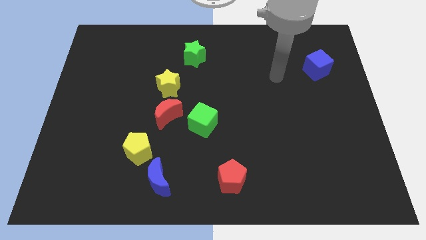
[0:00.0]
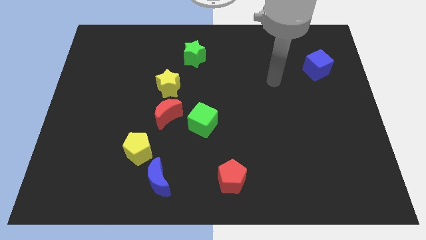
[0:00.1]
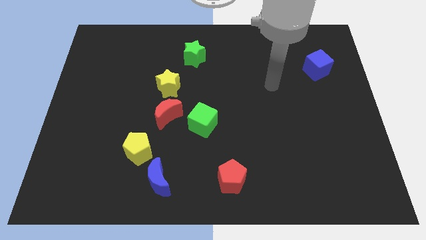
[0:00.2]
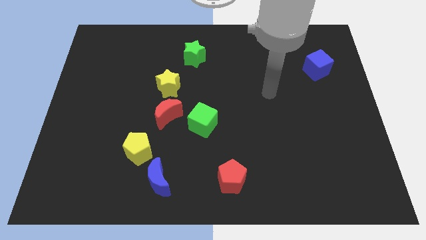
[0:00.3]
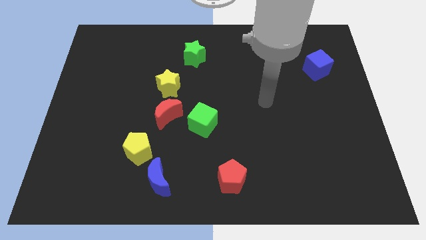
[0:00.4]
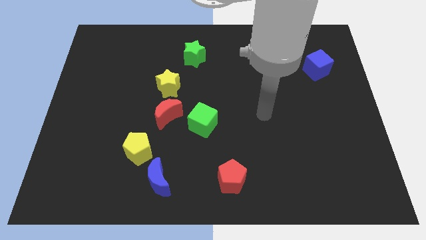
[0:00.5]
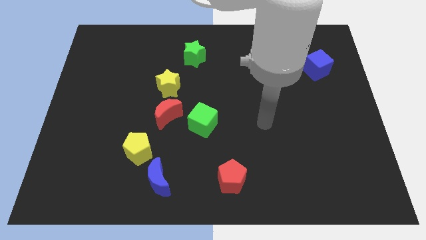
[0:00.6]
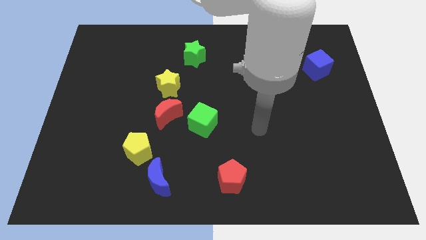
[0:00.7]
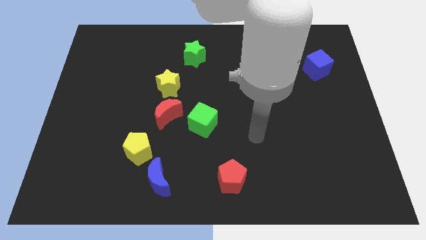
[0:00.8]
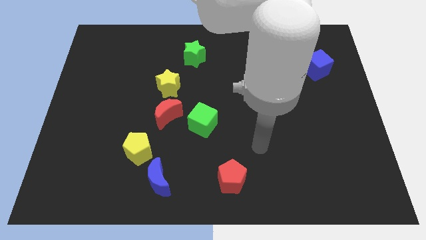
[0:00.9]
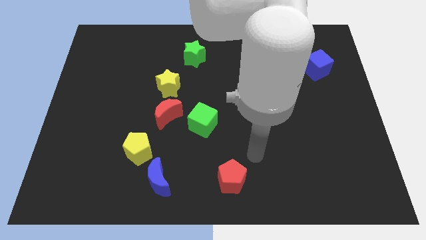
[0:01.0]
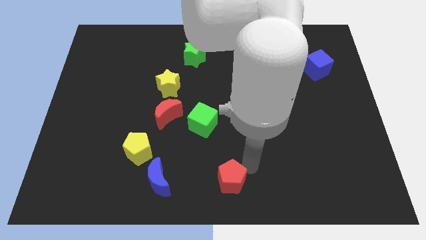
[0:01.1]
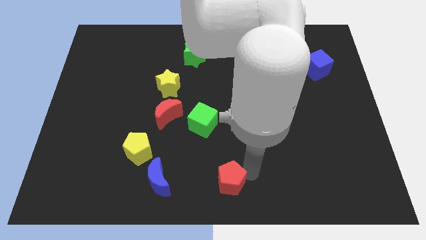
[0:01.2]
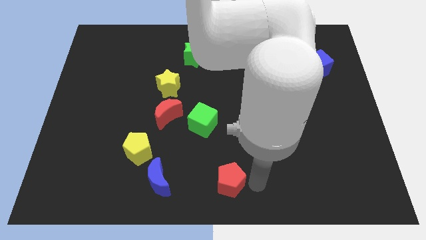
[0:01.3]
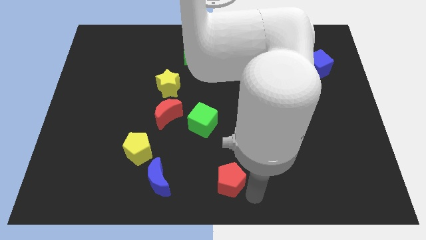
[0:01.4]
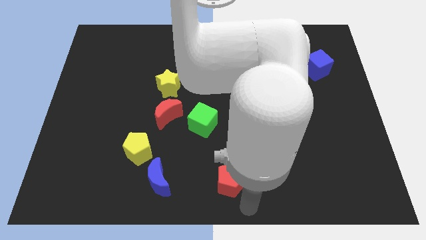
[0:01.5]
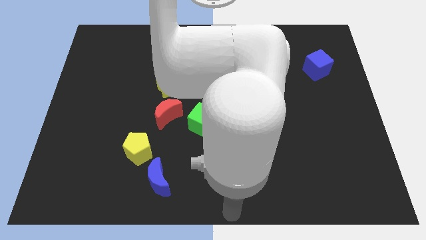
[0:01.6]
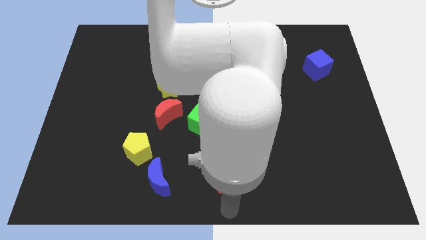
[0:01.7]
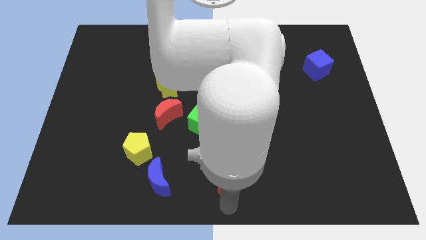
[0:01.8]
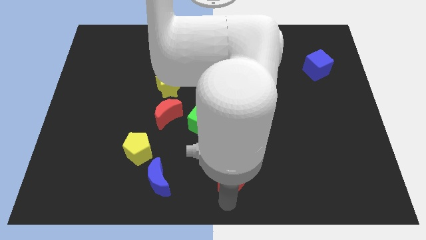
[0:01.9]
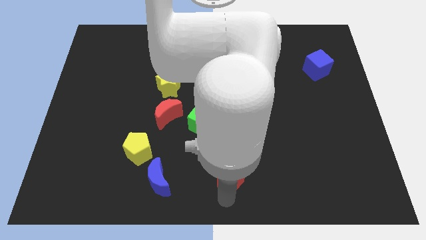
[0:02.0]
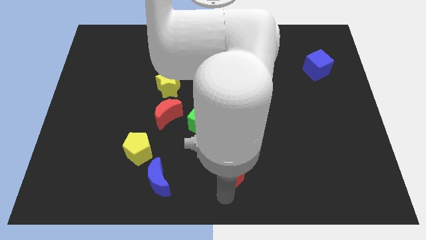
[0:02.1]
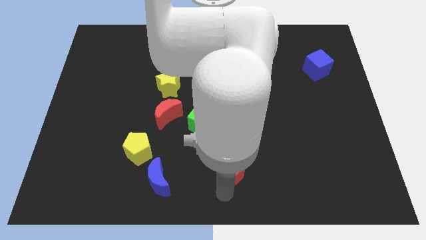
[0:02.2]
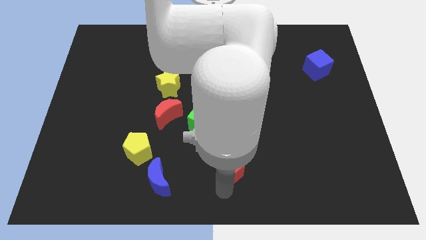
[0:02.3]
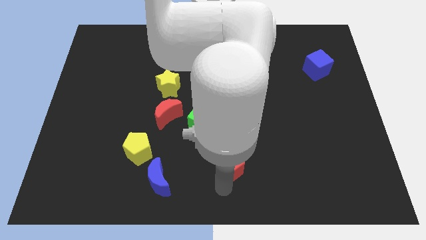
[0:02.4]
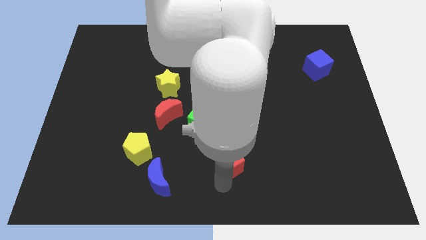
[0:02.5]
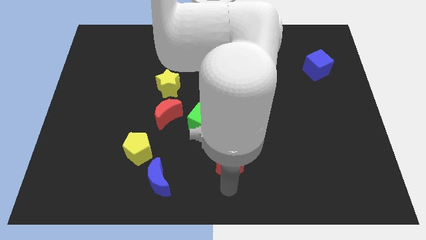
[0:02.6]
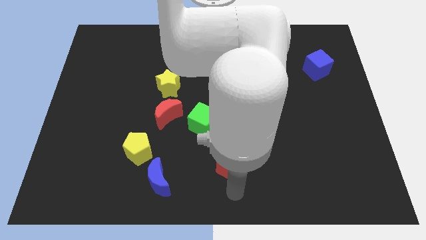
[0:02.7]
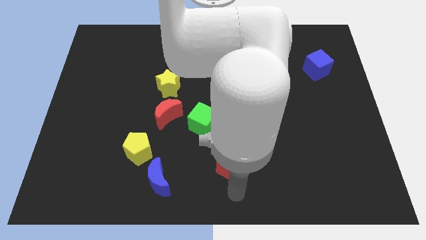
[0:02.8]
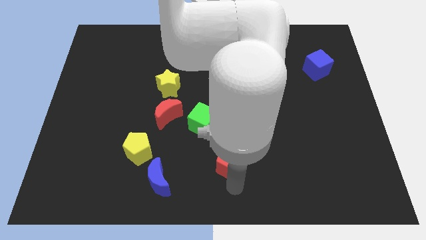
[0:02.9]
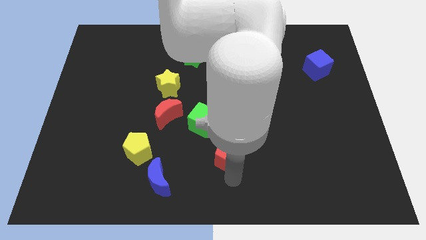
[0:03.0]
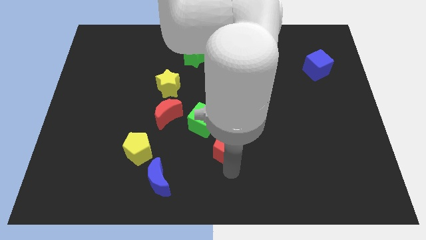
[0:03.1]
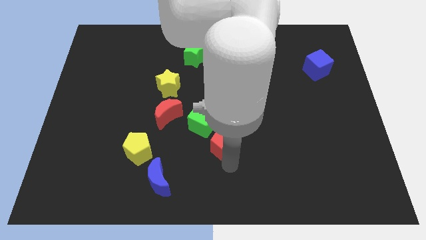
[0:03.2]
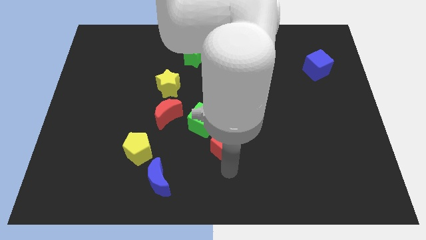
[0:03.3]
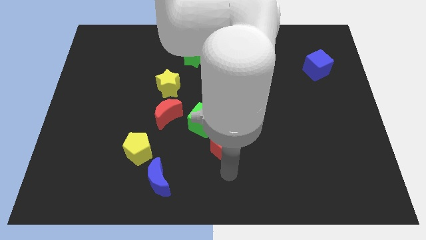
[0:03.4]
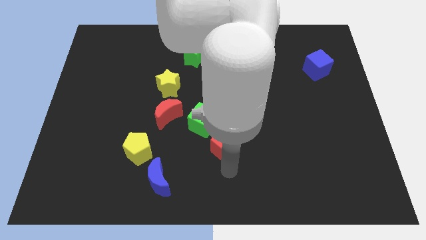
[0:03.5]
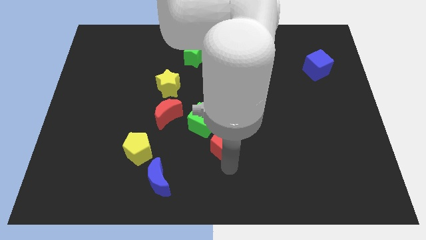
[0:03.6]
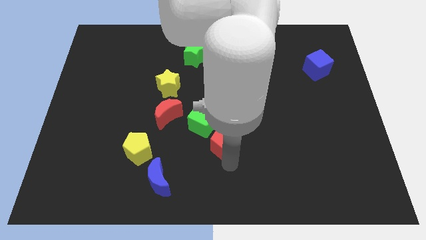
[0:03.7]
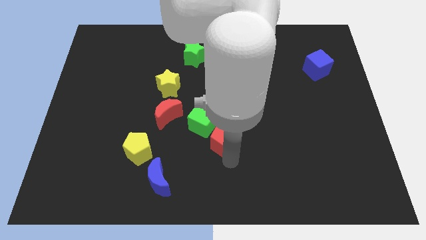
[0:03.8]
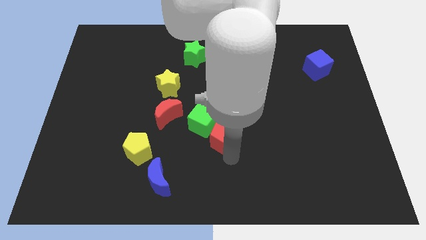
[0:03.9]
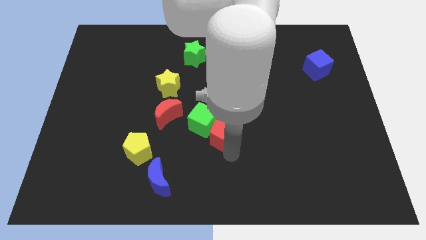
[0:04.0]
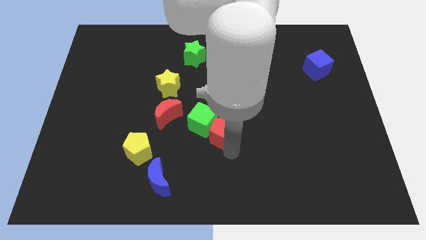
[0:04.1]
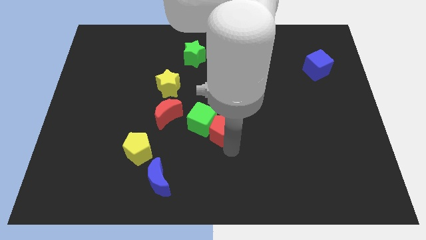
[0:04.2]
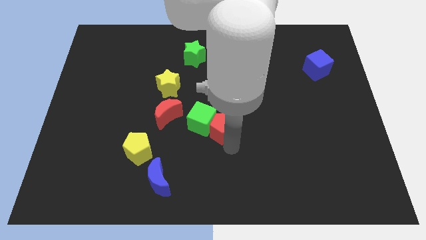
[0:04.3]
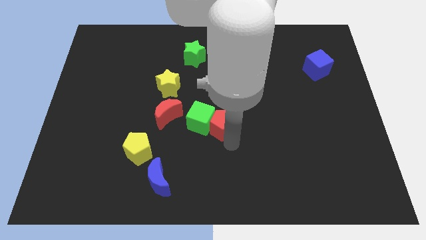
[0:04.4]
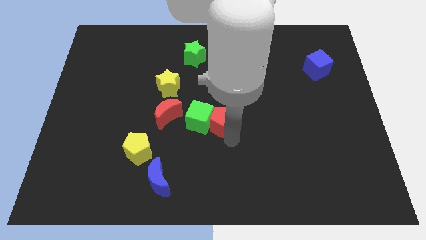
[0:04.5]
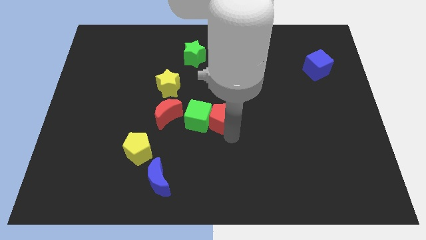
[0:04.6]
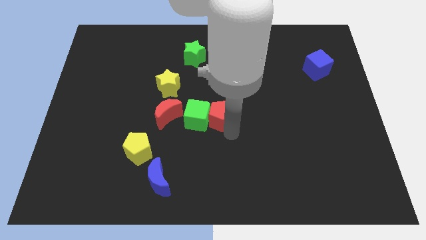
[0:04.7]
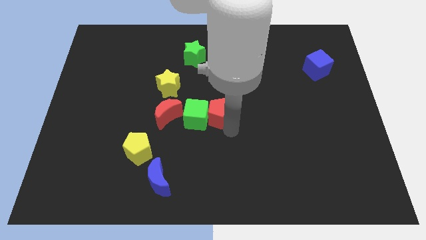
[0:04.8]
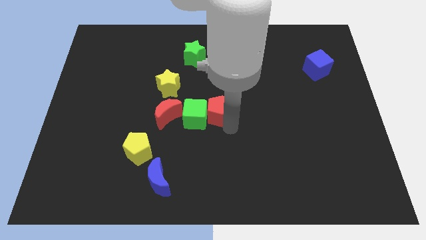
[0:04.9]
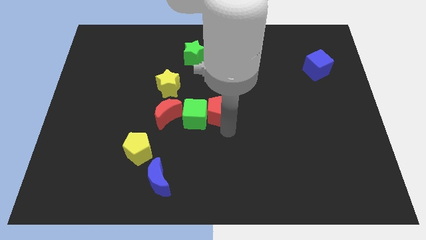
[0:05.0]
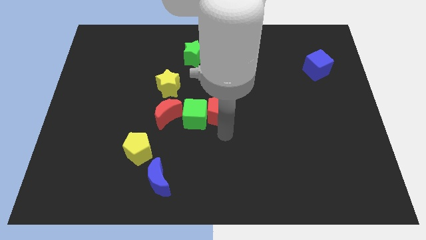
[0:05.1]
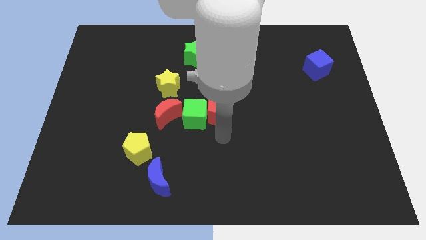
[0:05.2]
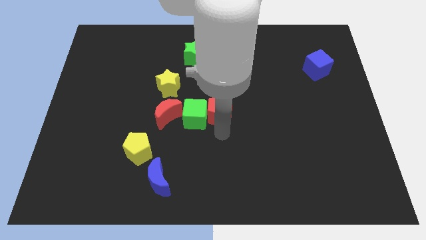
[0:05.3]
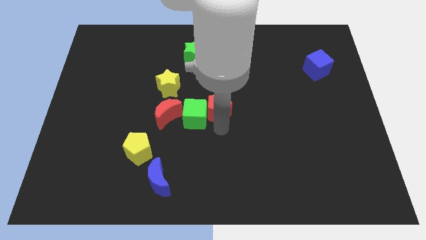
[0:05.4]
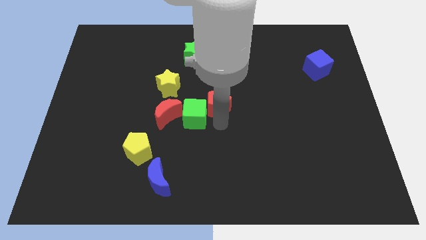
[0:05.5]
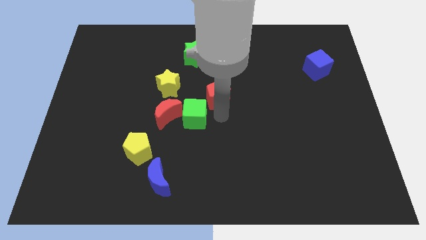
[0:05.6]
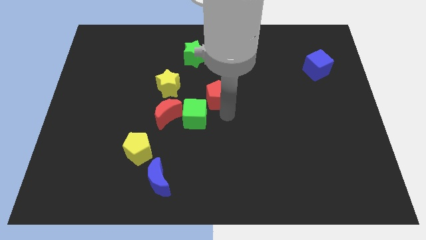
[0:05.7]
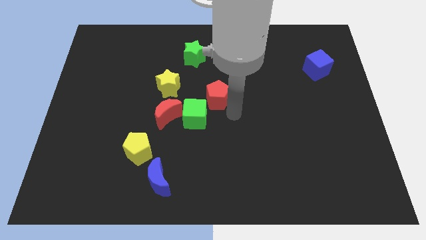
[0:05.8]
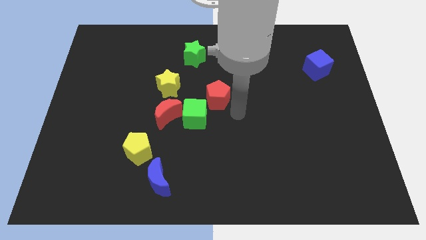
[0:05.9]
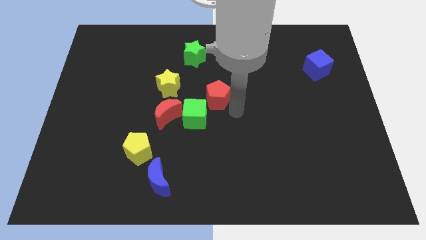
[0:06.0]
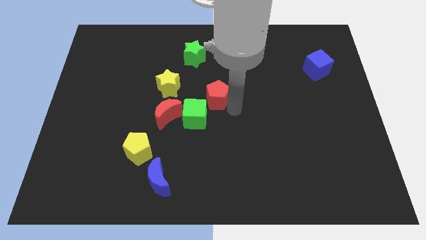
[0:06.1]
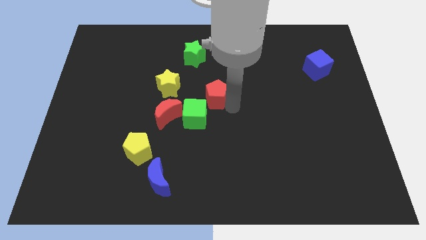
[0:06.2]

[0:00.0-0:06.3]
put the red pentagon to the top side of the green cube

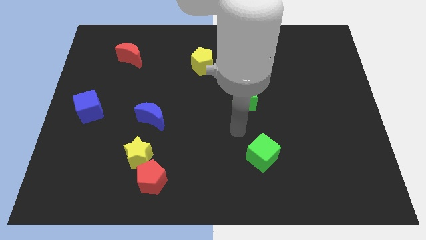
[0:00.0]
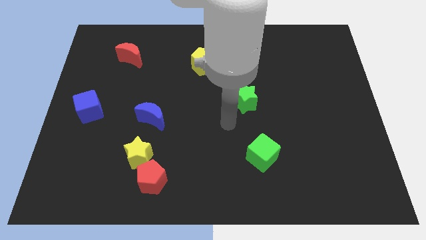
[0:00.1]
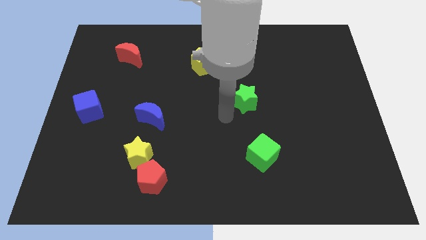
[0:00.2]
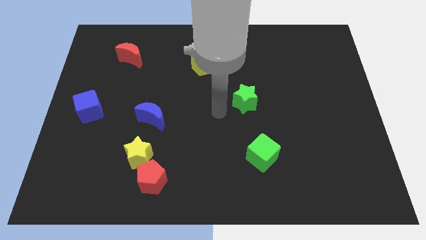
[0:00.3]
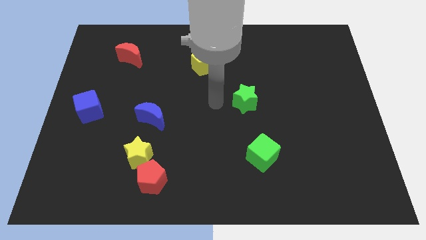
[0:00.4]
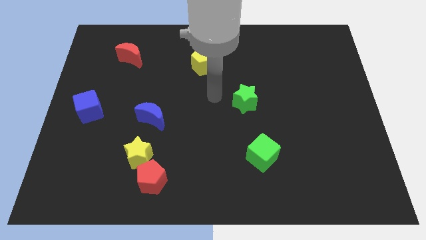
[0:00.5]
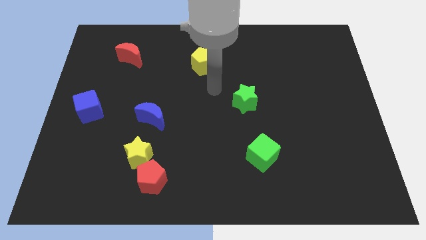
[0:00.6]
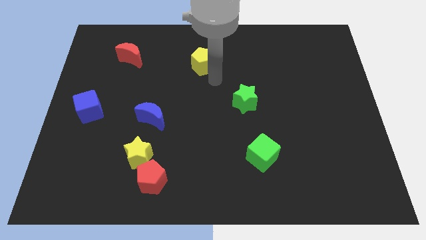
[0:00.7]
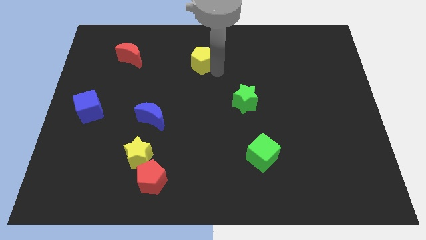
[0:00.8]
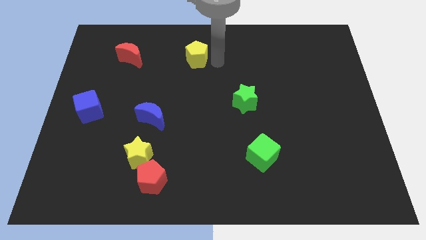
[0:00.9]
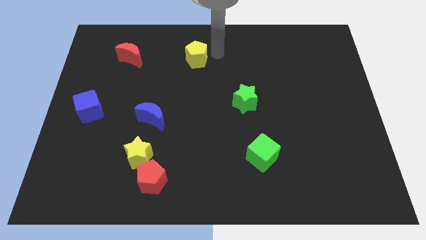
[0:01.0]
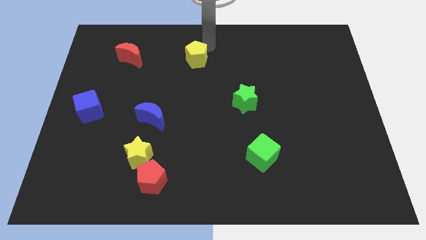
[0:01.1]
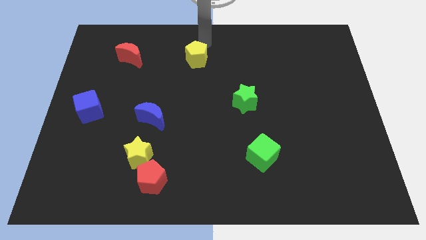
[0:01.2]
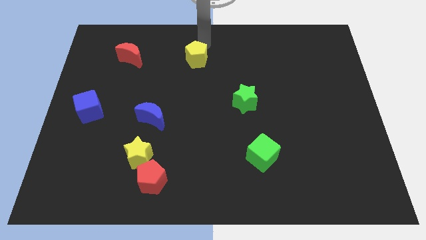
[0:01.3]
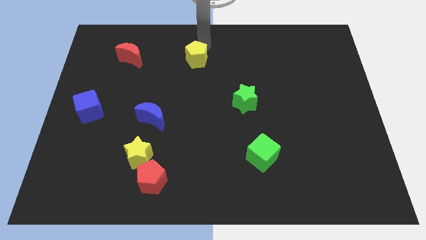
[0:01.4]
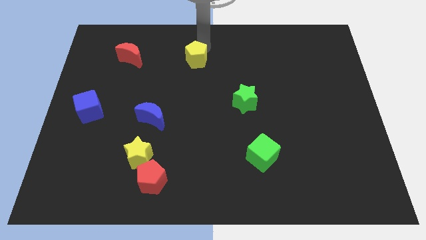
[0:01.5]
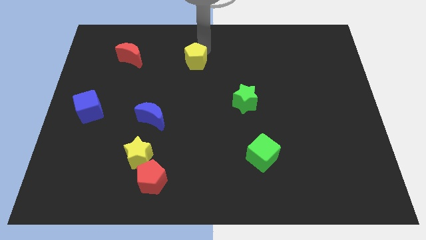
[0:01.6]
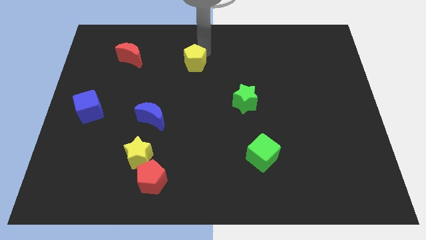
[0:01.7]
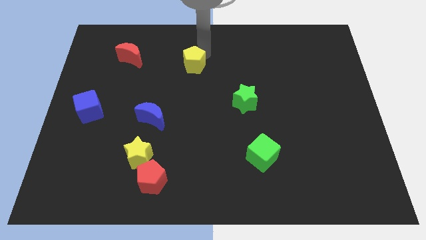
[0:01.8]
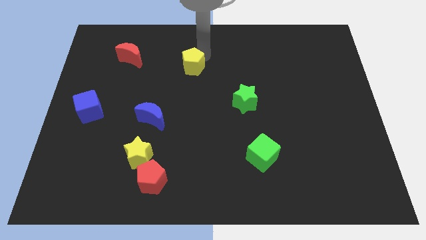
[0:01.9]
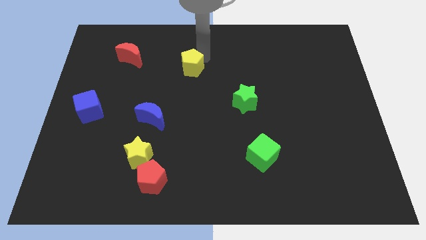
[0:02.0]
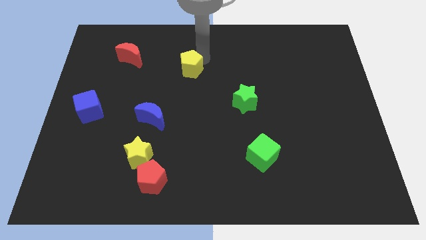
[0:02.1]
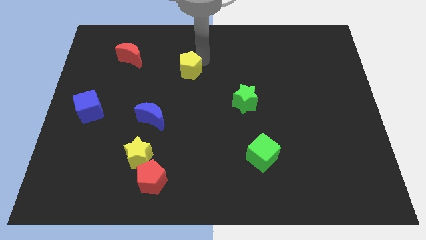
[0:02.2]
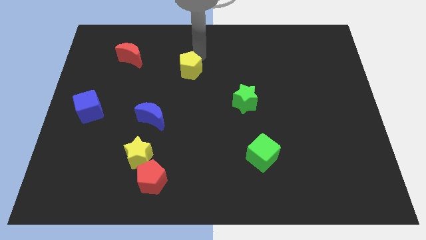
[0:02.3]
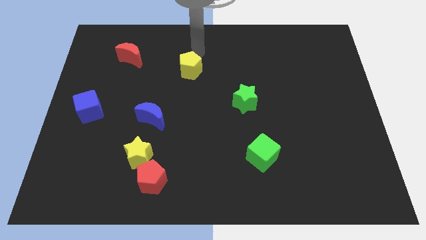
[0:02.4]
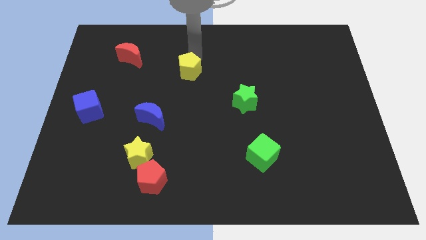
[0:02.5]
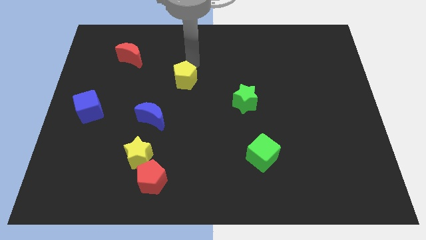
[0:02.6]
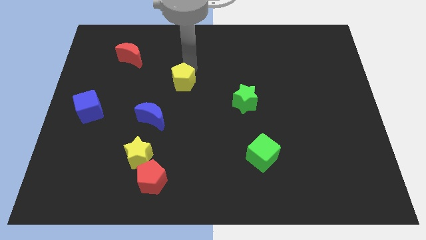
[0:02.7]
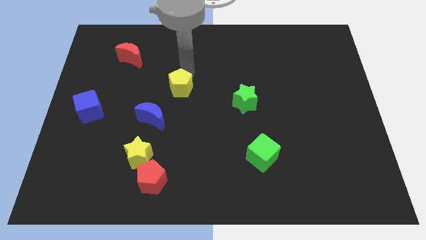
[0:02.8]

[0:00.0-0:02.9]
push the yellow pentagon to the top right side of the blue moon
